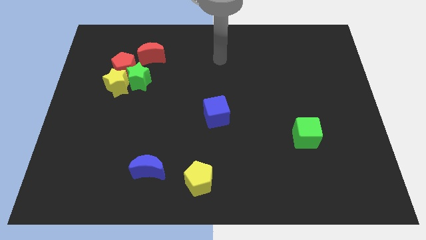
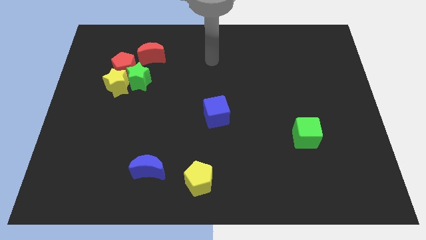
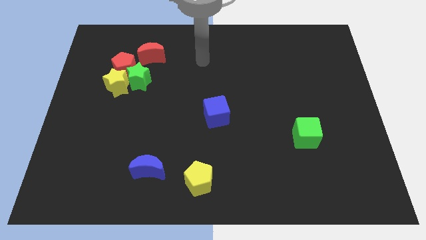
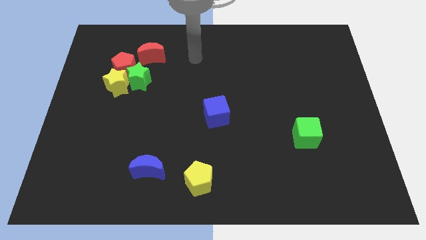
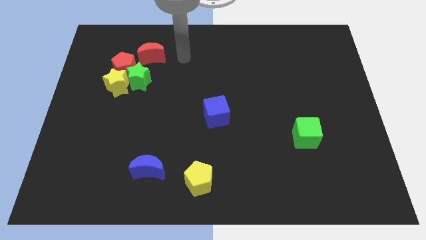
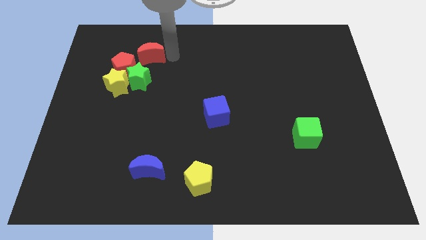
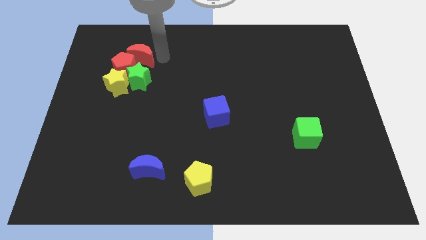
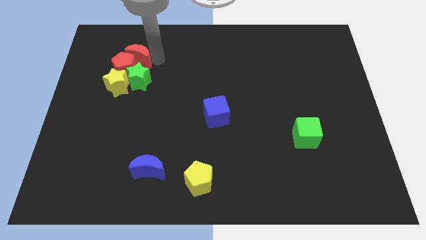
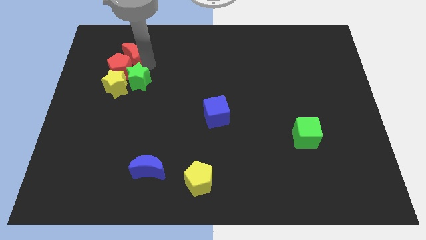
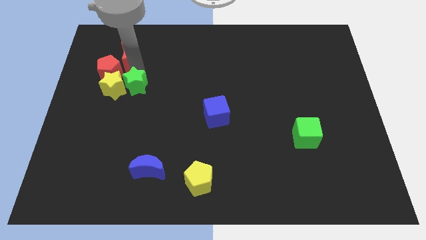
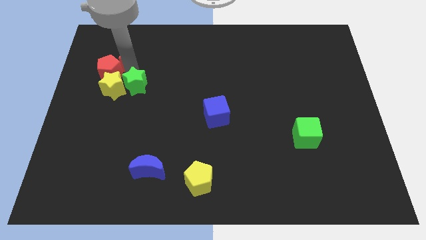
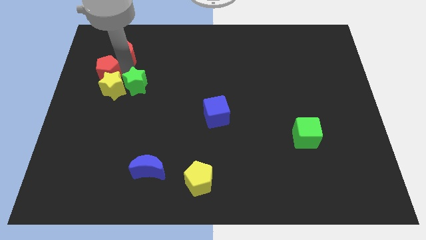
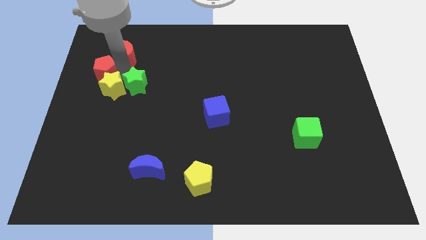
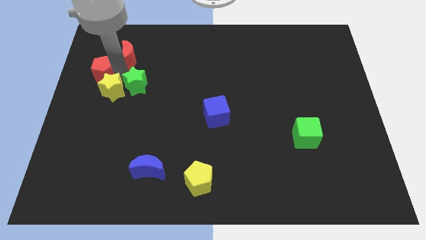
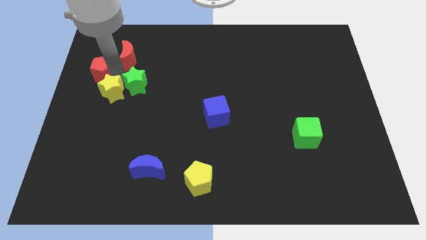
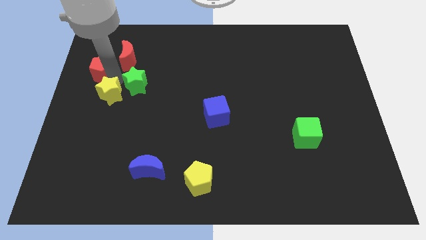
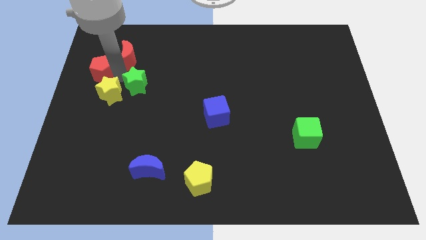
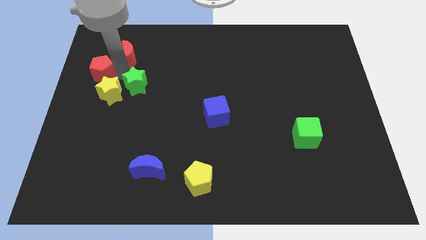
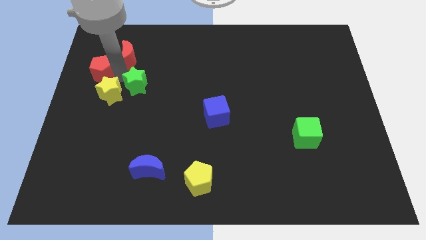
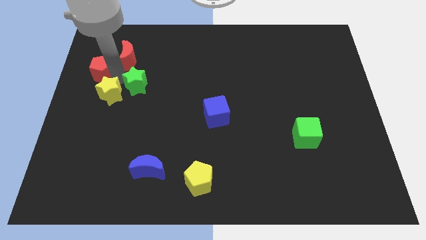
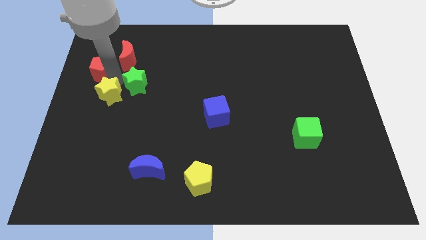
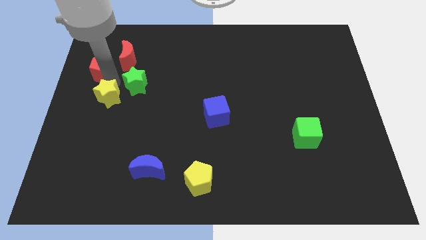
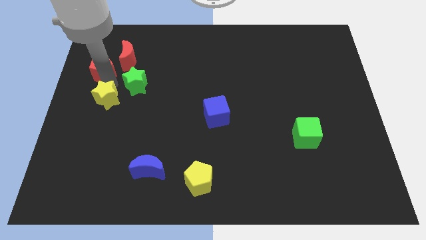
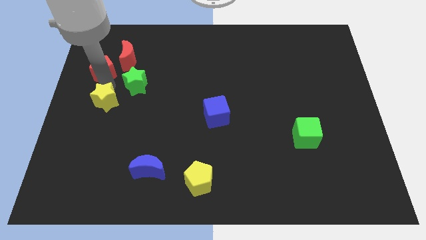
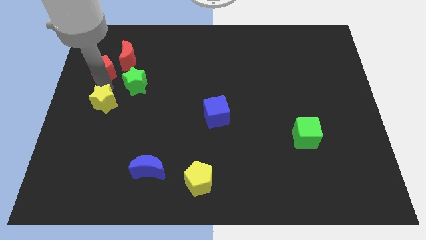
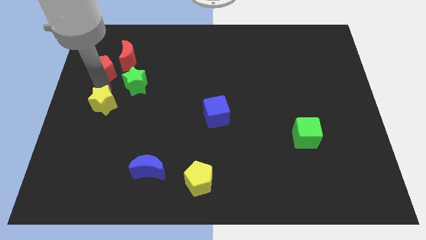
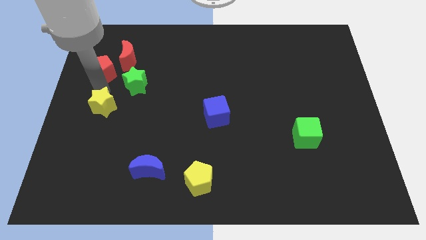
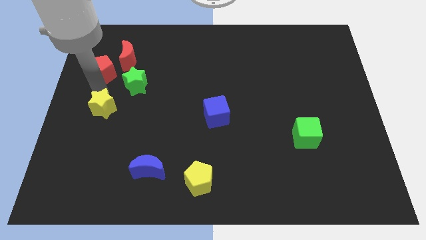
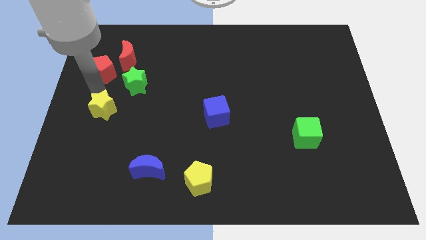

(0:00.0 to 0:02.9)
move the yellow star away from the red pentagon and green star

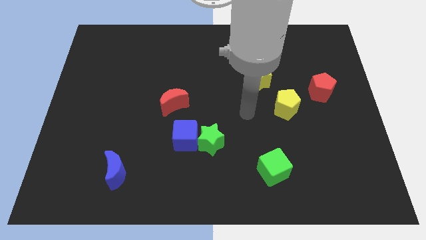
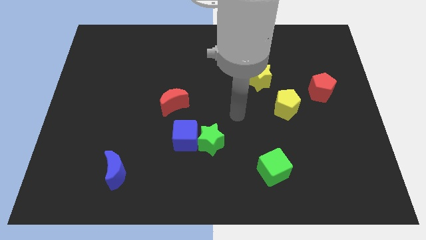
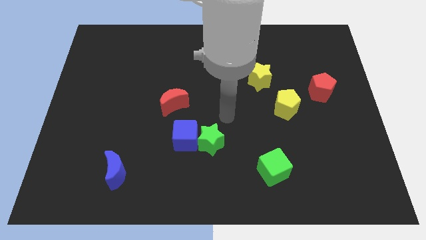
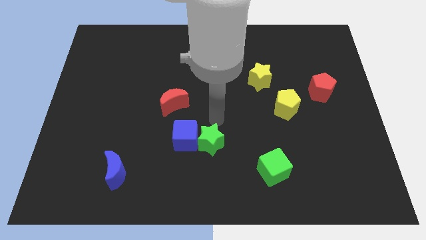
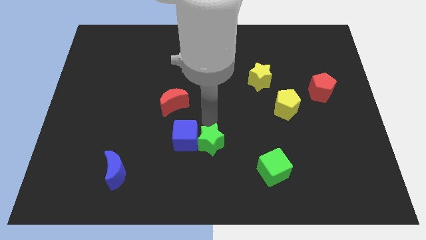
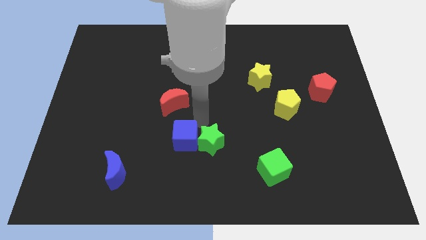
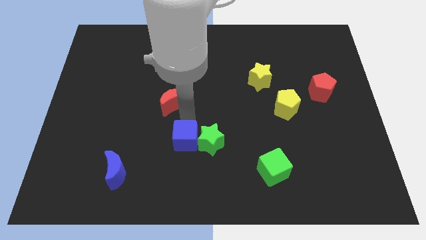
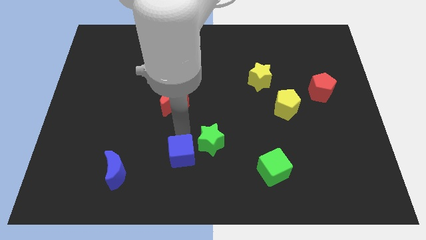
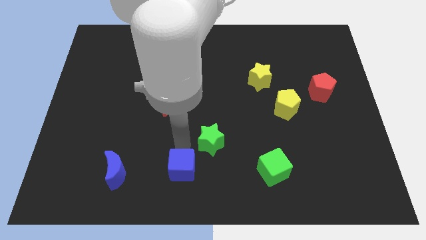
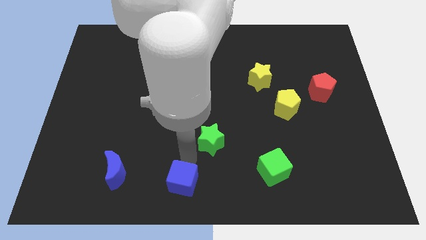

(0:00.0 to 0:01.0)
move the green star away from the blue cube

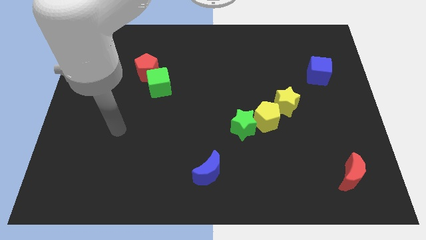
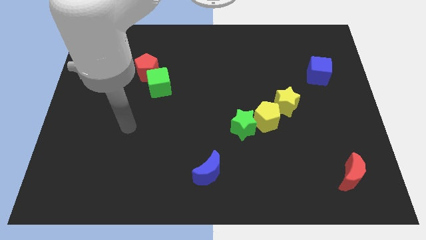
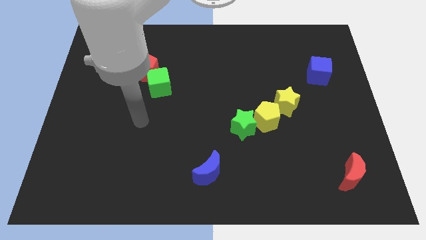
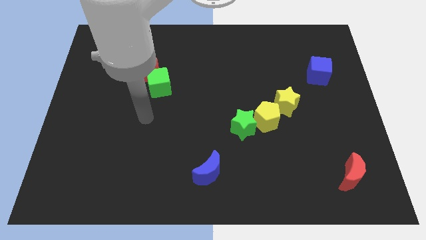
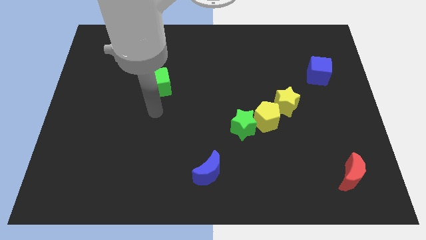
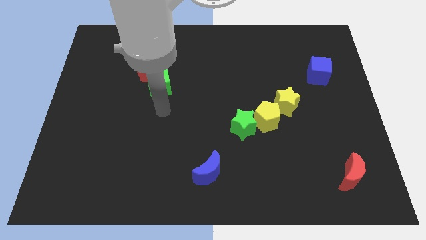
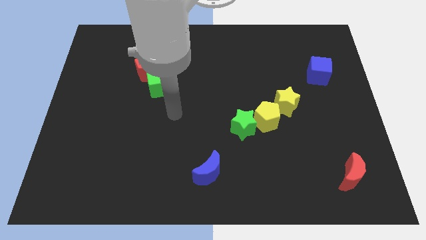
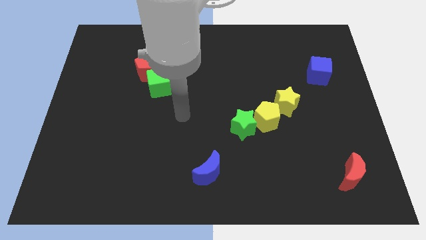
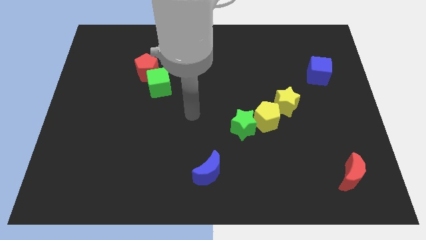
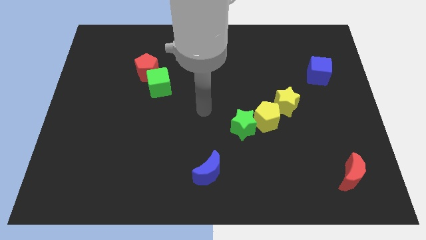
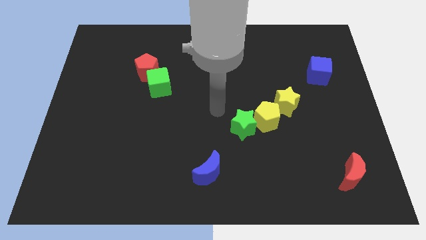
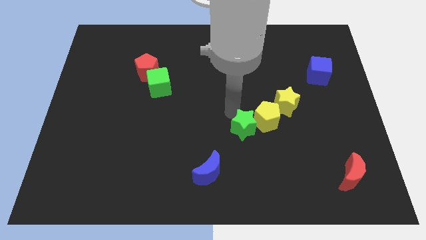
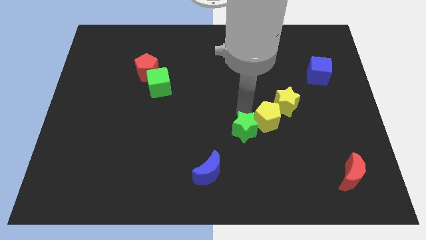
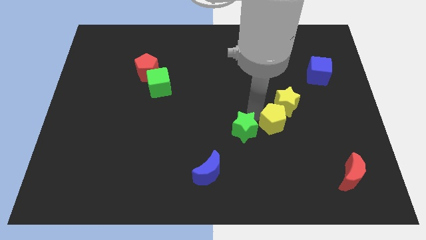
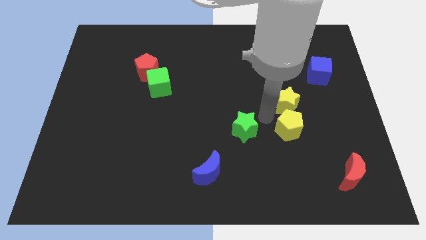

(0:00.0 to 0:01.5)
move the green star away from the yellow pentagon

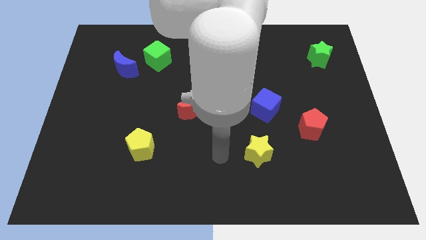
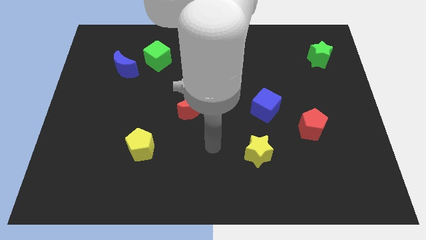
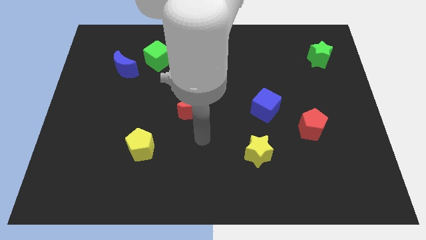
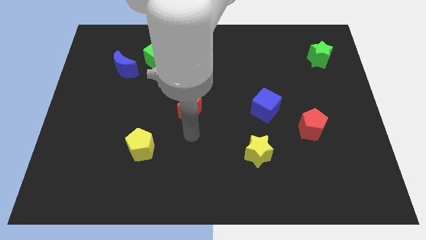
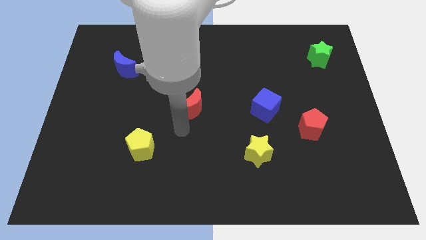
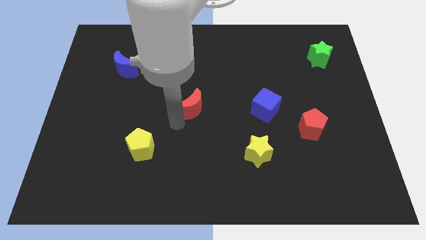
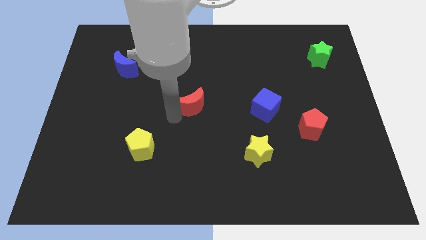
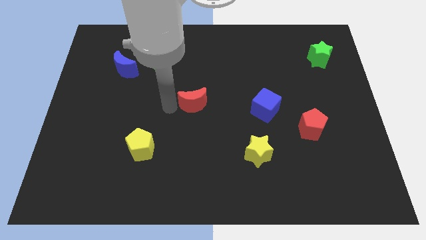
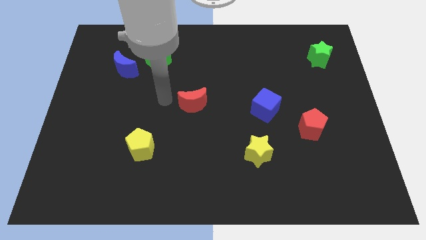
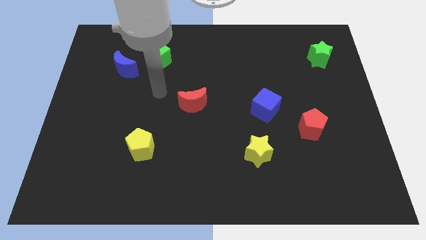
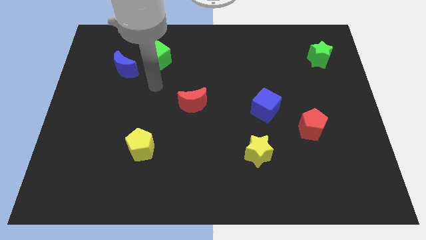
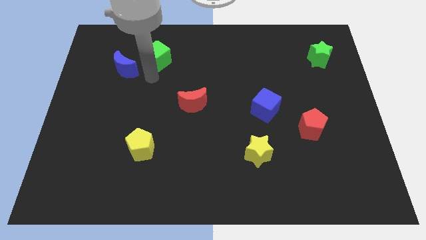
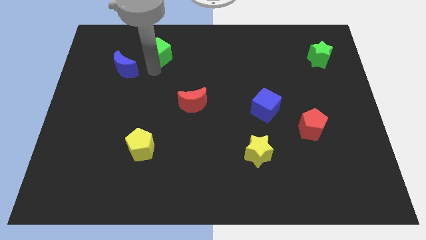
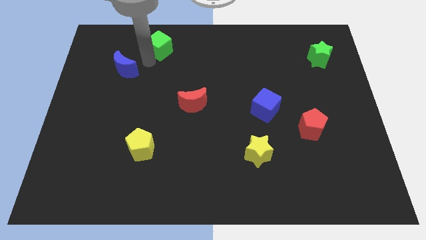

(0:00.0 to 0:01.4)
move the blue moon away from the green cube

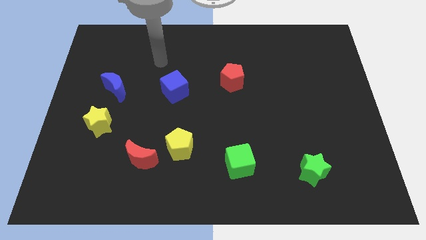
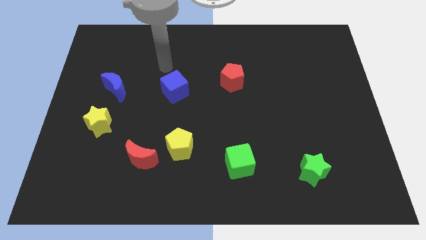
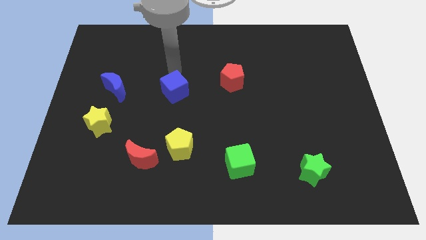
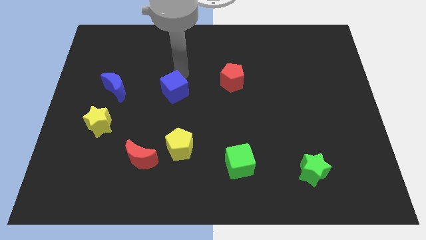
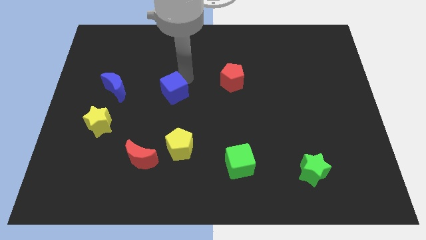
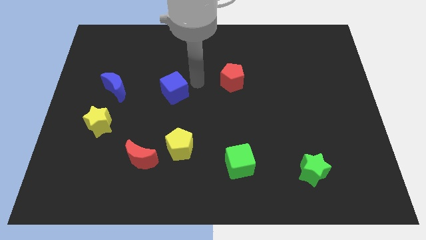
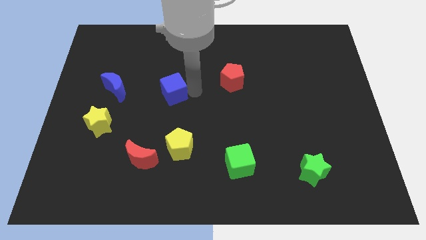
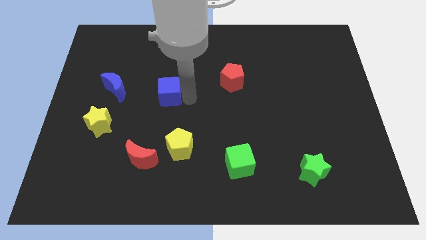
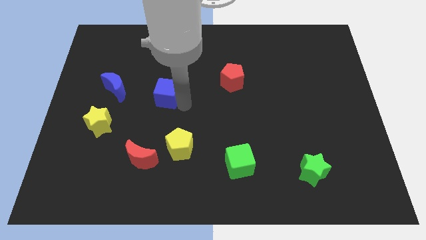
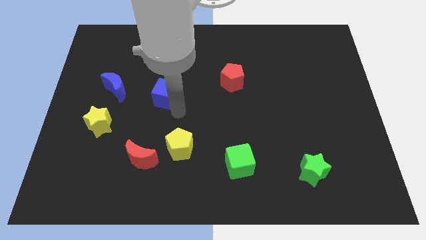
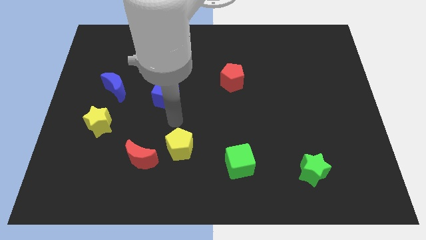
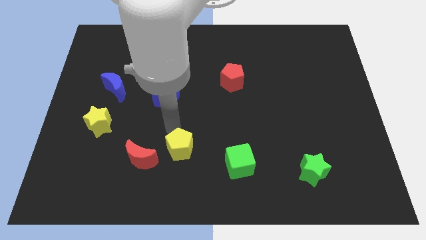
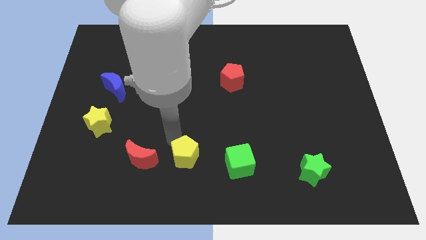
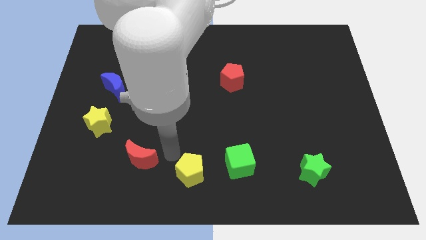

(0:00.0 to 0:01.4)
pull the red moon apart from the yellow pentagon

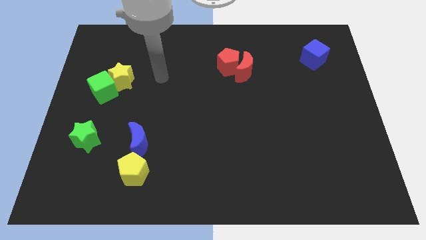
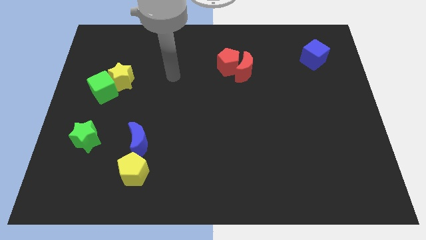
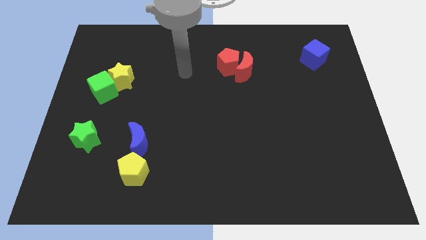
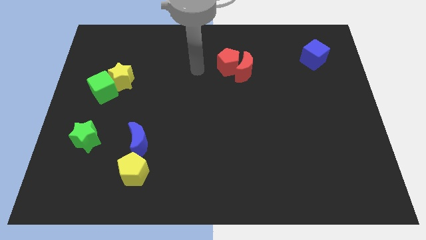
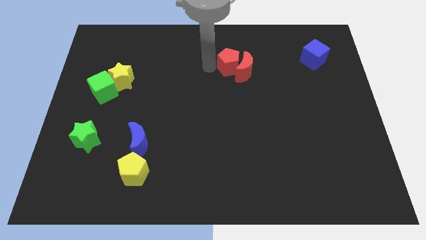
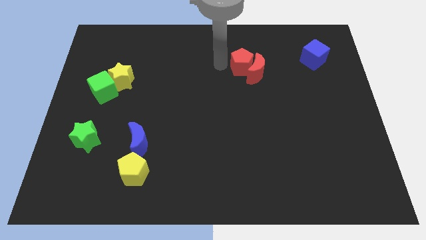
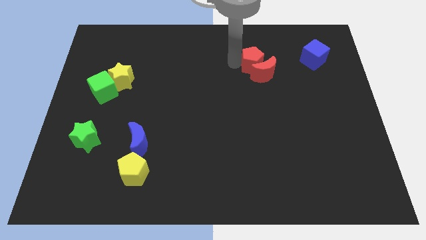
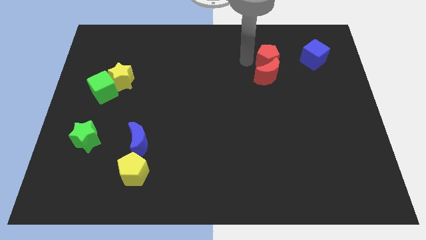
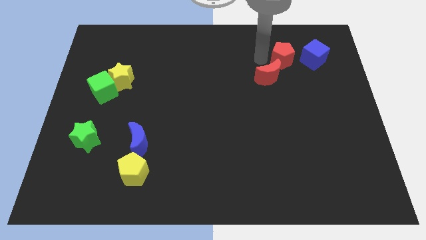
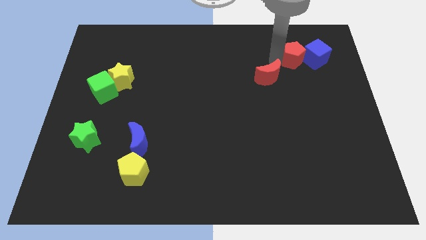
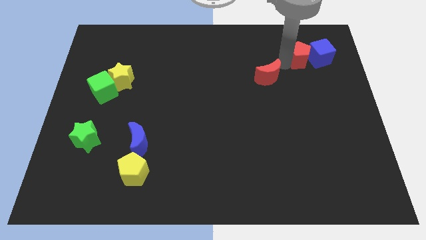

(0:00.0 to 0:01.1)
move the red moon away from the red pentagon
